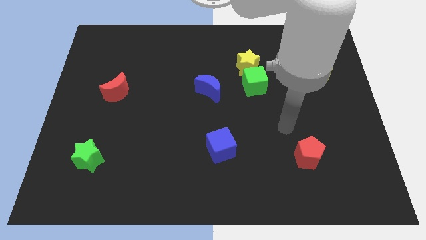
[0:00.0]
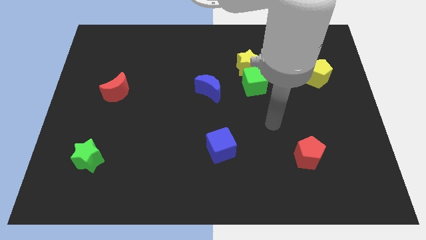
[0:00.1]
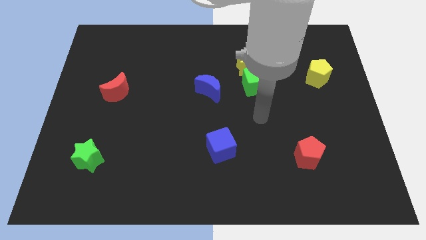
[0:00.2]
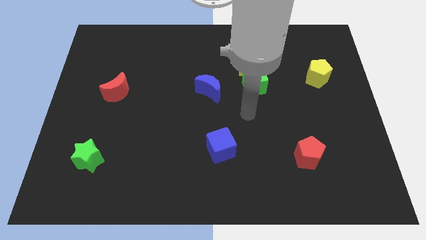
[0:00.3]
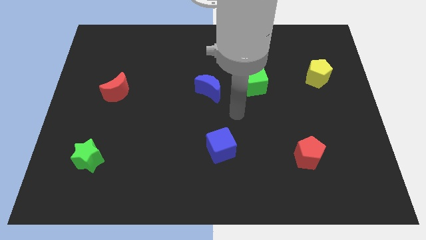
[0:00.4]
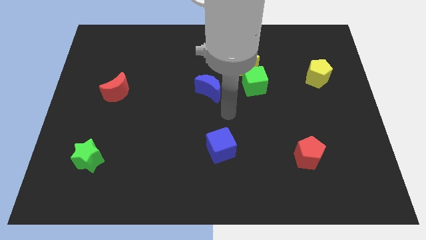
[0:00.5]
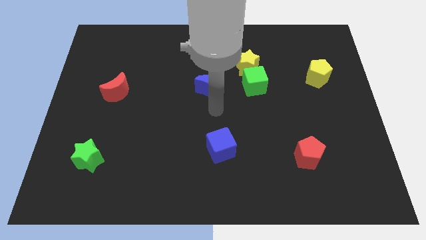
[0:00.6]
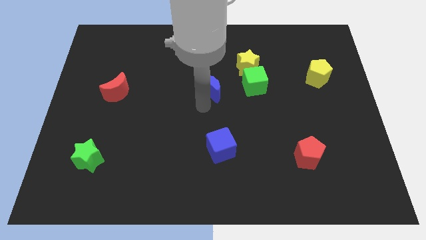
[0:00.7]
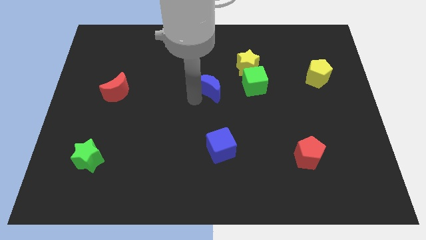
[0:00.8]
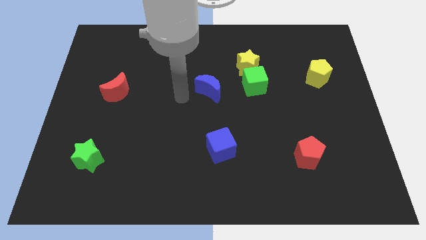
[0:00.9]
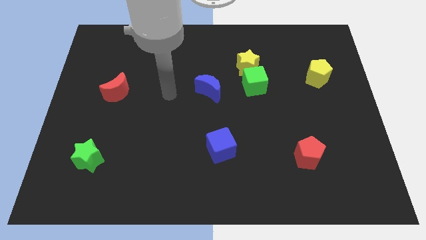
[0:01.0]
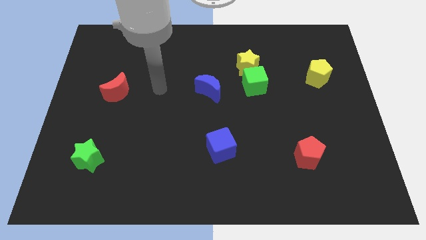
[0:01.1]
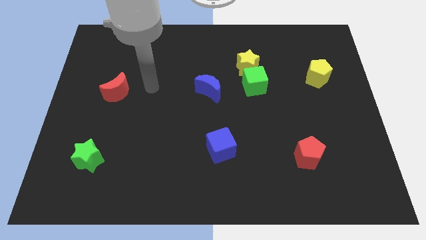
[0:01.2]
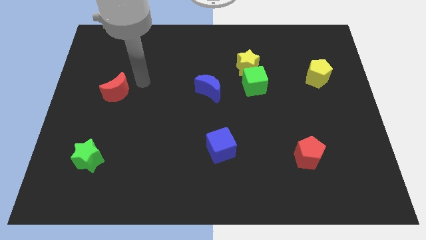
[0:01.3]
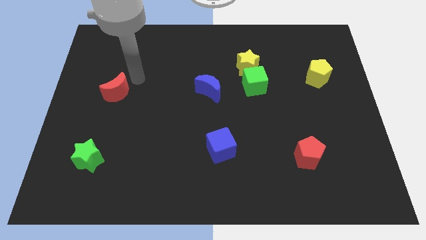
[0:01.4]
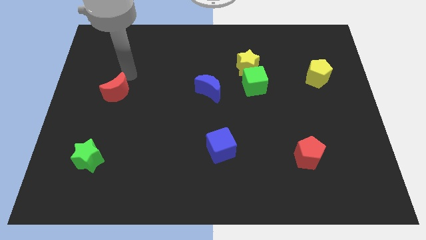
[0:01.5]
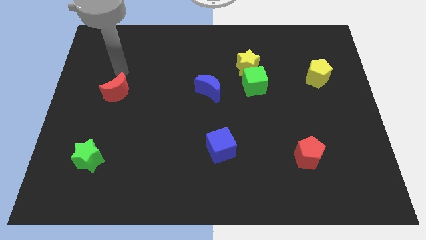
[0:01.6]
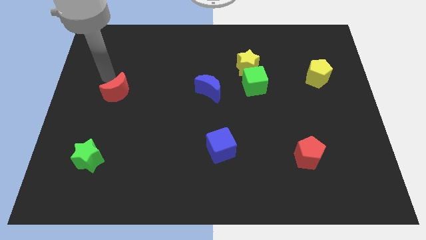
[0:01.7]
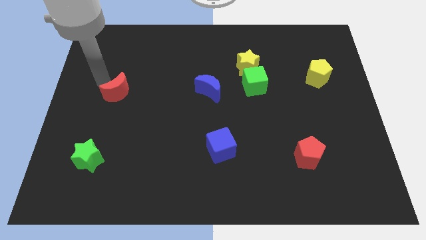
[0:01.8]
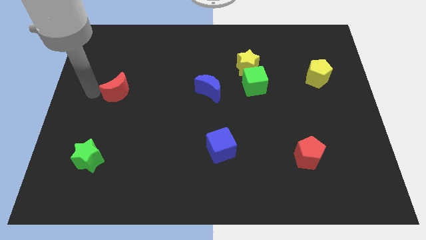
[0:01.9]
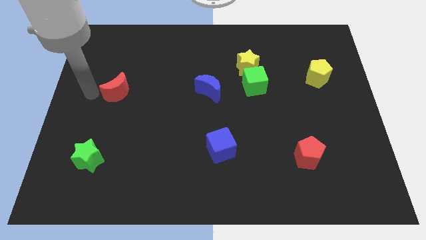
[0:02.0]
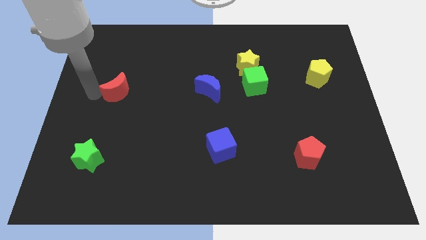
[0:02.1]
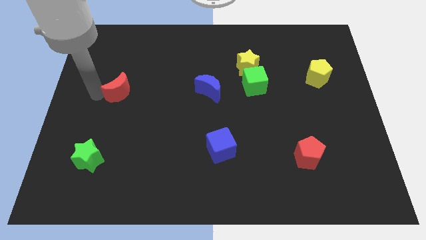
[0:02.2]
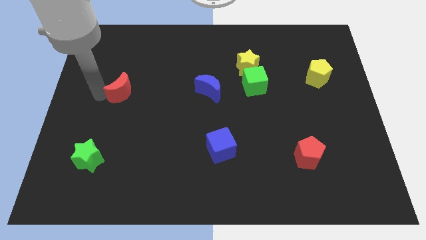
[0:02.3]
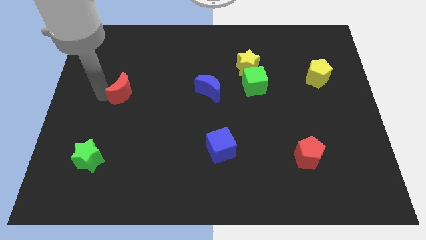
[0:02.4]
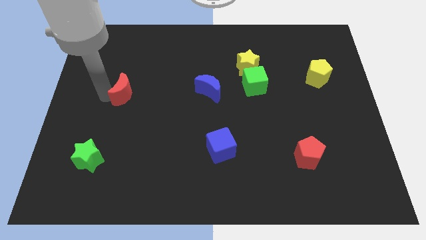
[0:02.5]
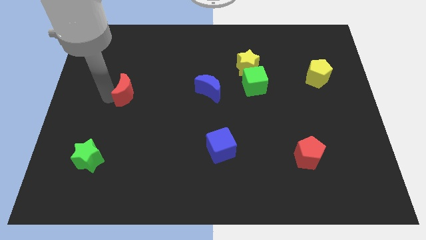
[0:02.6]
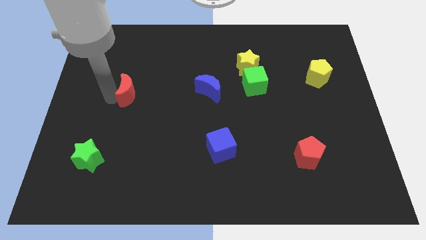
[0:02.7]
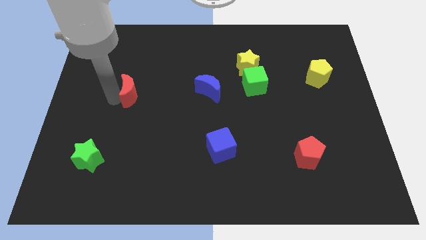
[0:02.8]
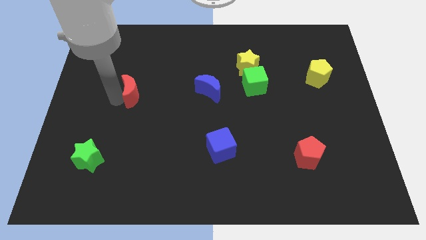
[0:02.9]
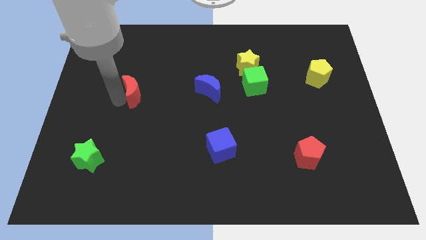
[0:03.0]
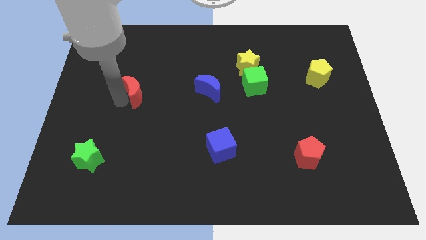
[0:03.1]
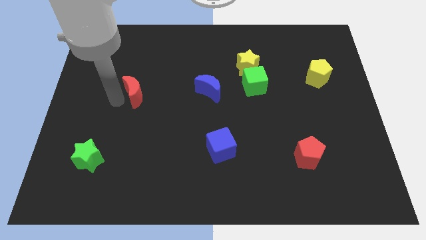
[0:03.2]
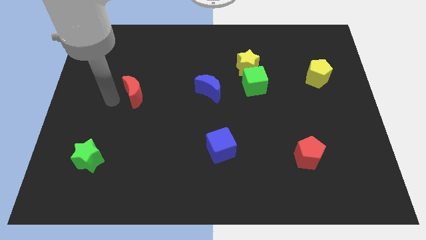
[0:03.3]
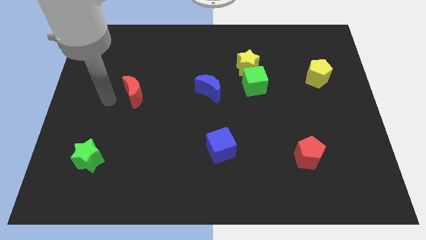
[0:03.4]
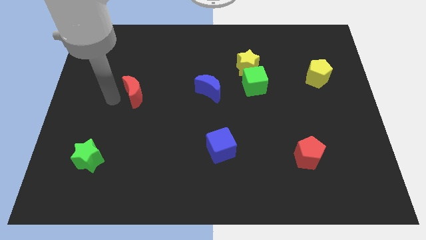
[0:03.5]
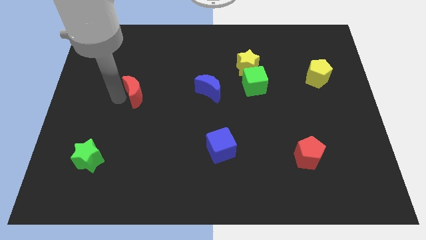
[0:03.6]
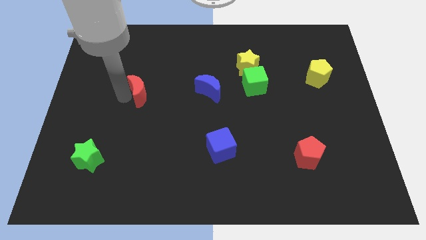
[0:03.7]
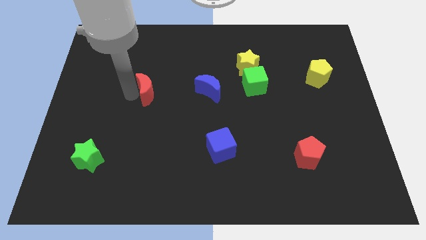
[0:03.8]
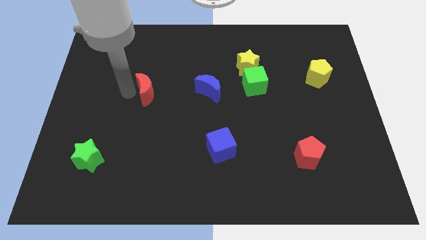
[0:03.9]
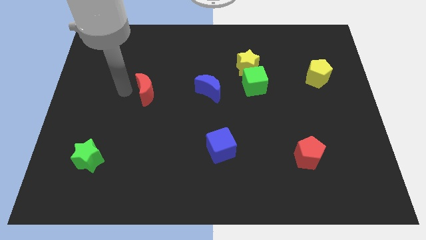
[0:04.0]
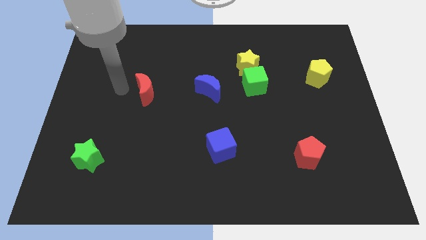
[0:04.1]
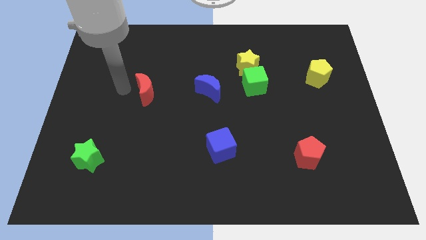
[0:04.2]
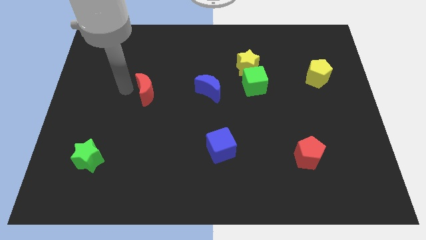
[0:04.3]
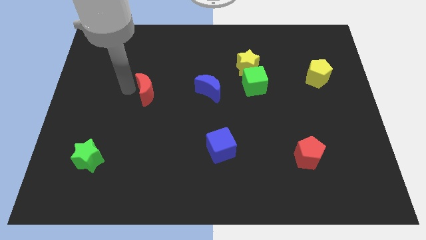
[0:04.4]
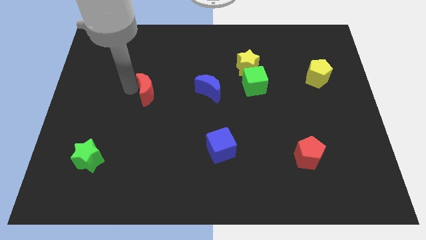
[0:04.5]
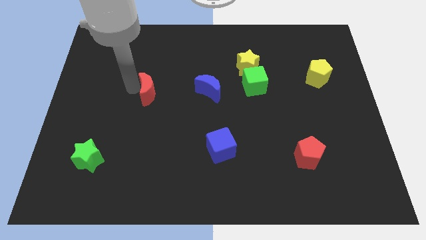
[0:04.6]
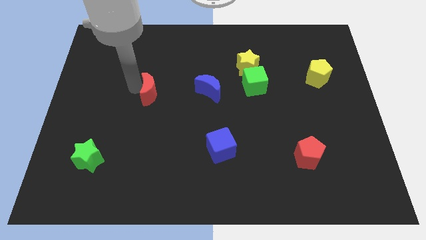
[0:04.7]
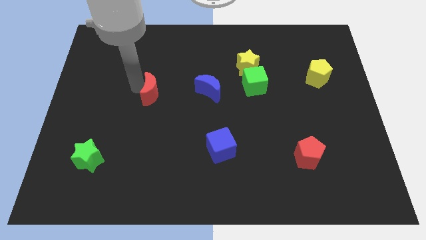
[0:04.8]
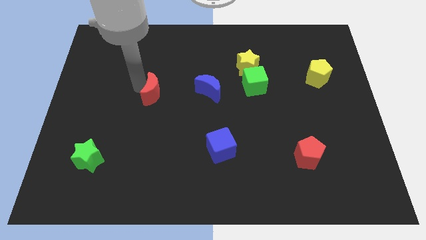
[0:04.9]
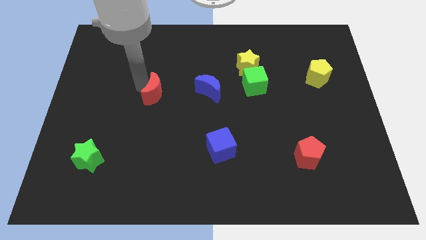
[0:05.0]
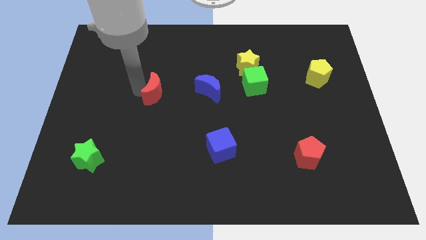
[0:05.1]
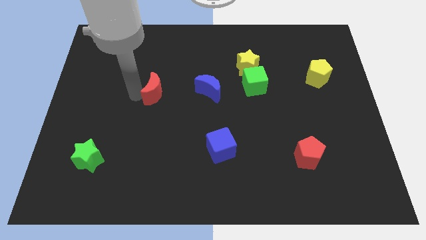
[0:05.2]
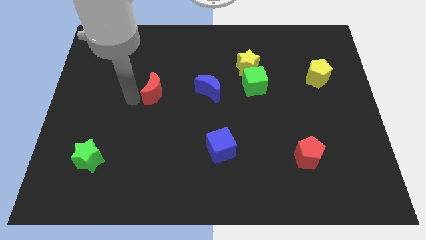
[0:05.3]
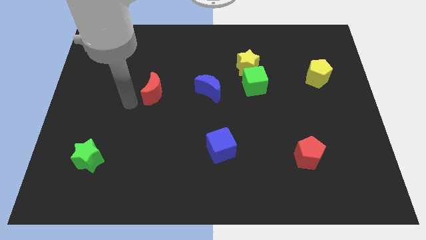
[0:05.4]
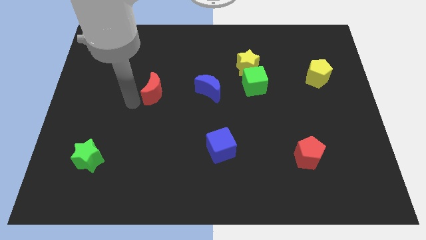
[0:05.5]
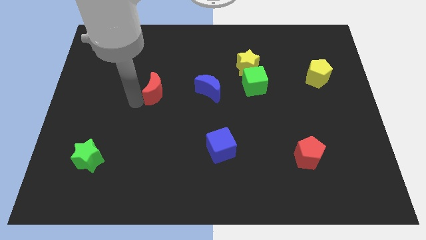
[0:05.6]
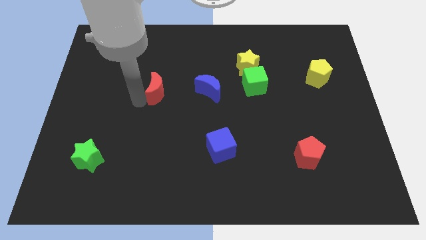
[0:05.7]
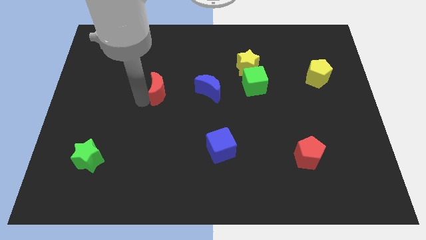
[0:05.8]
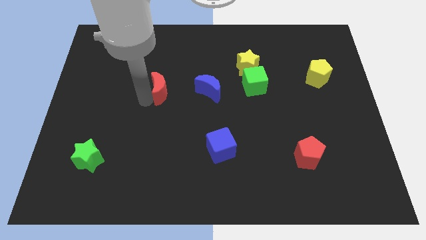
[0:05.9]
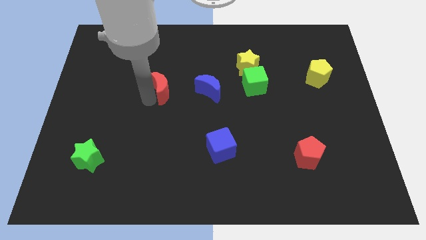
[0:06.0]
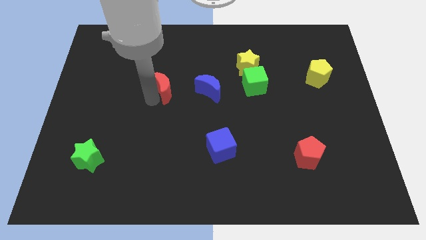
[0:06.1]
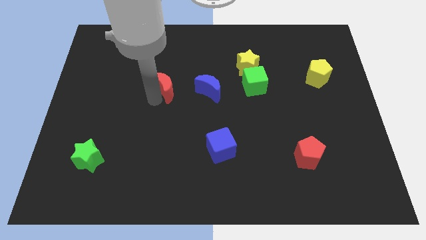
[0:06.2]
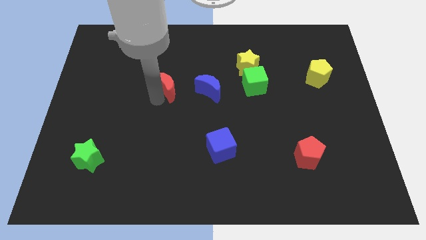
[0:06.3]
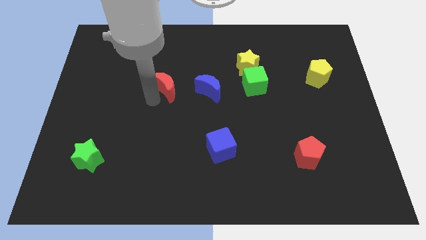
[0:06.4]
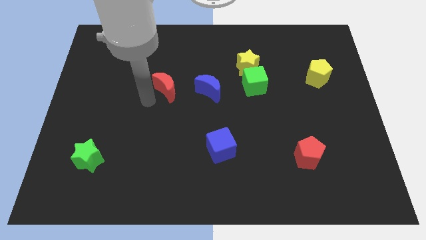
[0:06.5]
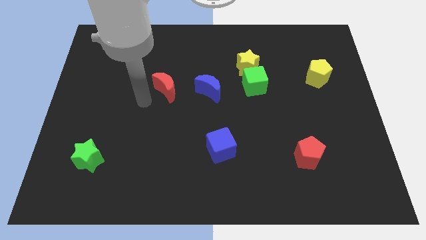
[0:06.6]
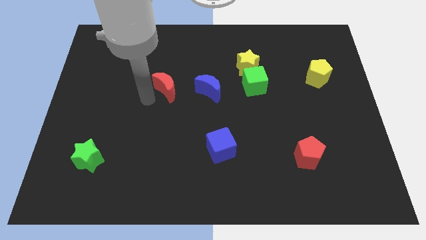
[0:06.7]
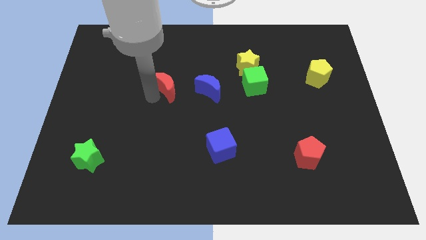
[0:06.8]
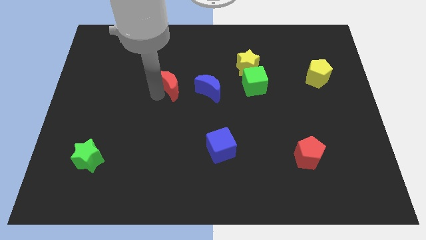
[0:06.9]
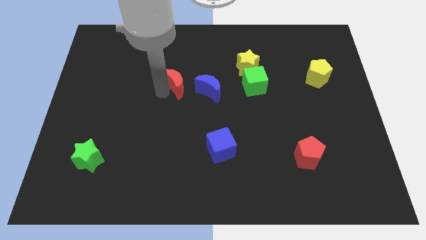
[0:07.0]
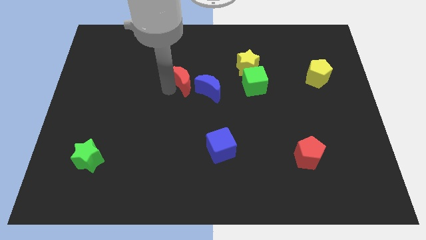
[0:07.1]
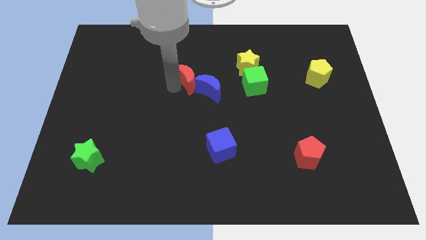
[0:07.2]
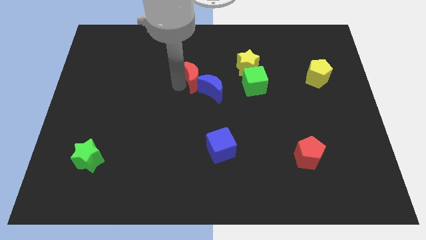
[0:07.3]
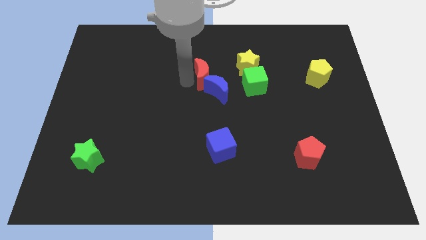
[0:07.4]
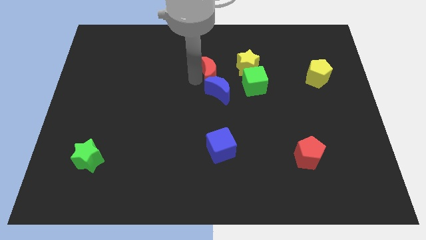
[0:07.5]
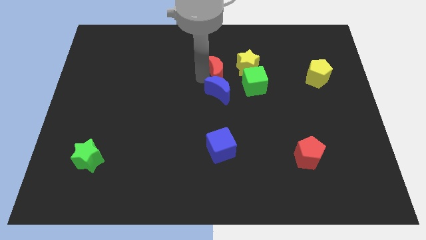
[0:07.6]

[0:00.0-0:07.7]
put the red moon diagonally up and to the left of the green cube

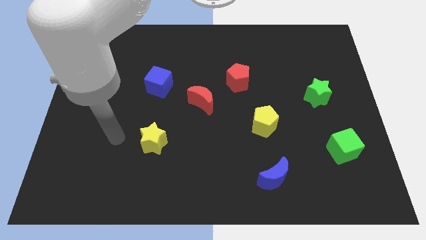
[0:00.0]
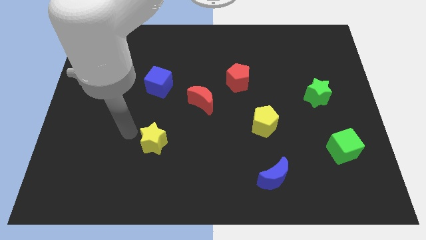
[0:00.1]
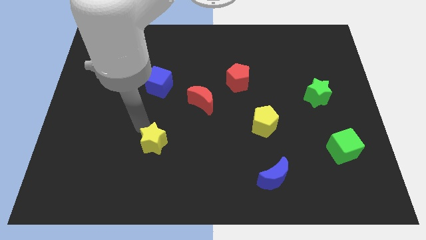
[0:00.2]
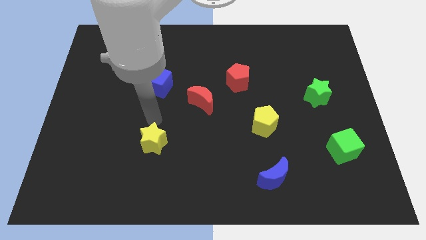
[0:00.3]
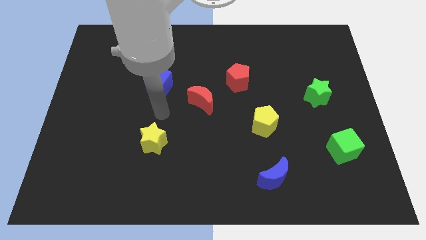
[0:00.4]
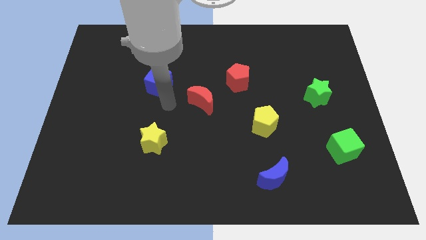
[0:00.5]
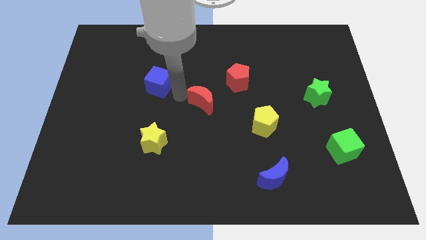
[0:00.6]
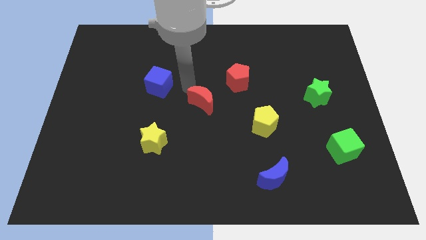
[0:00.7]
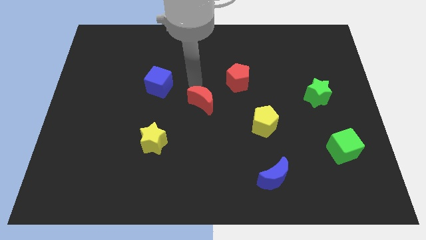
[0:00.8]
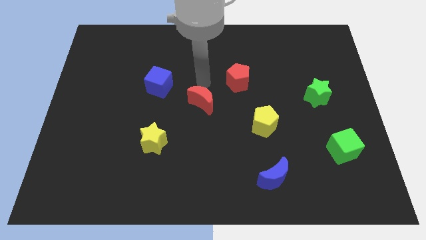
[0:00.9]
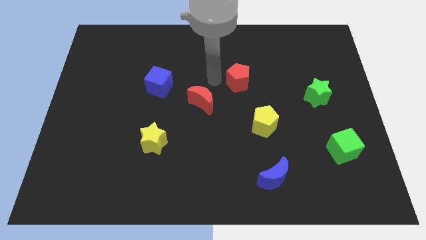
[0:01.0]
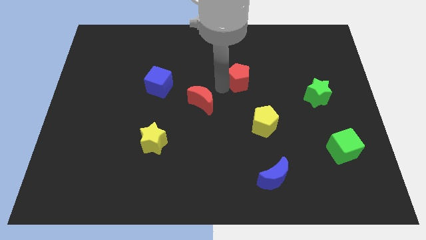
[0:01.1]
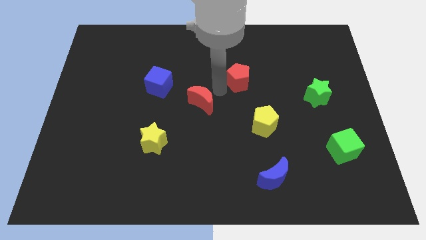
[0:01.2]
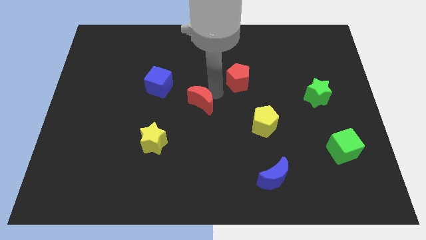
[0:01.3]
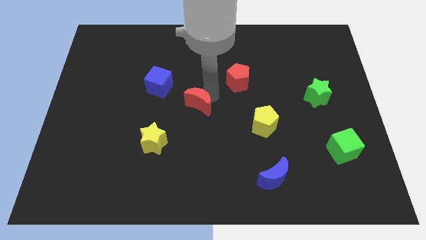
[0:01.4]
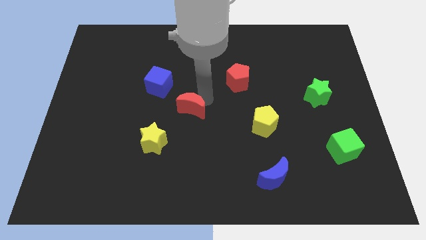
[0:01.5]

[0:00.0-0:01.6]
put the red moon to the top right of the yellow star
